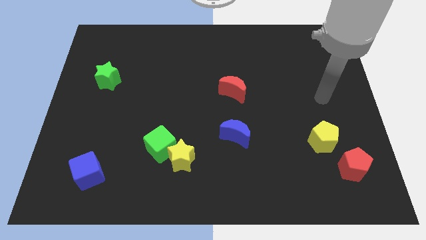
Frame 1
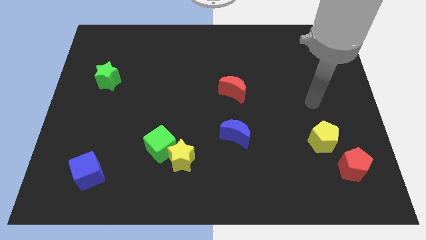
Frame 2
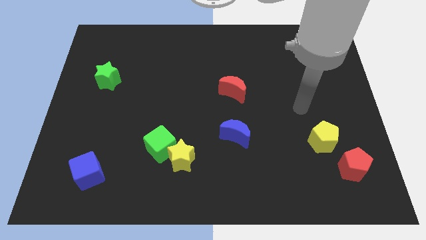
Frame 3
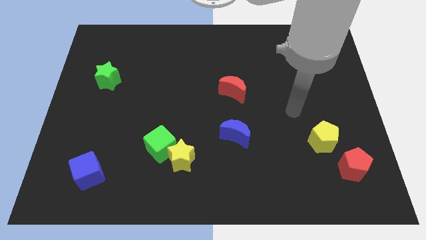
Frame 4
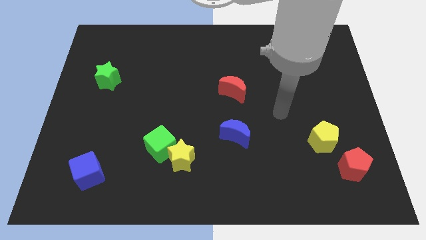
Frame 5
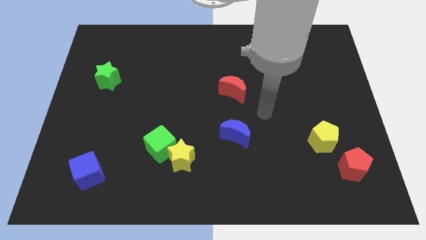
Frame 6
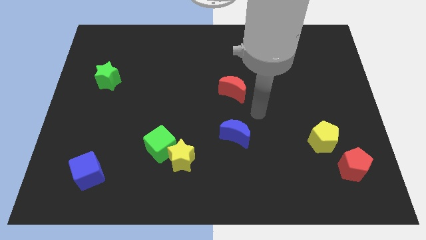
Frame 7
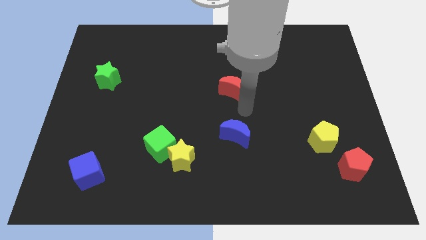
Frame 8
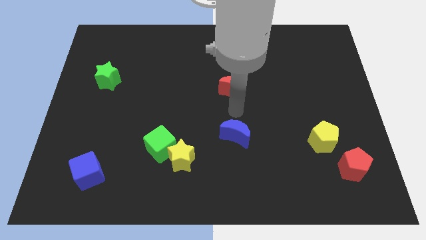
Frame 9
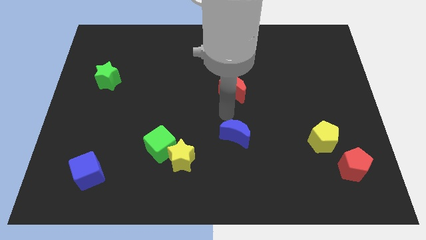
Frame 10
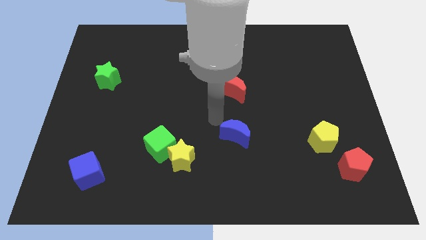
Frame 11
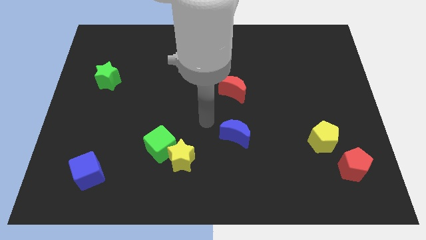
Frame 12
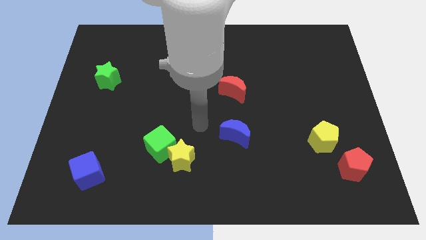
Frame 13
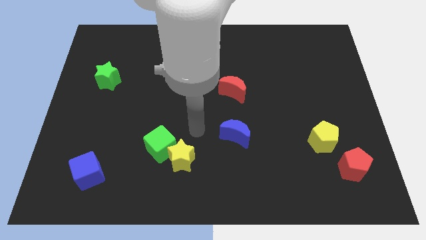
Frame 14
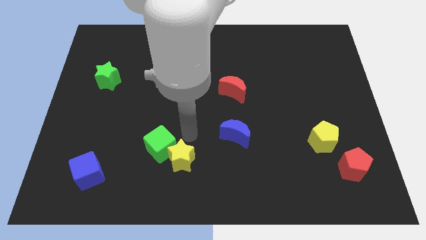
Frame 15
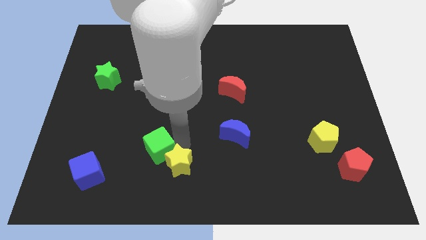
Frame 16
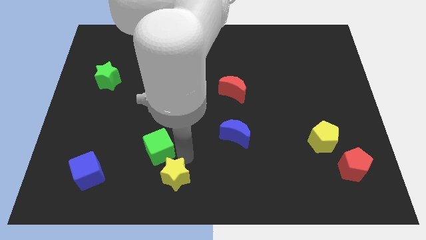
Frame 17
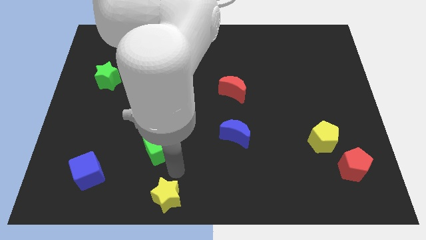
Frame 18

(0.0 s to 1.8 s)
move the green cube away from the yellow star

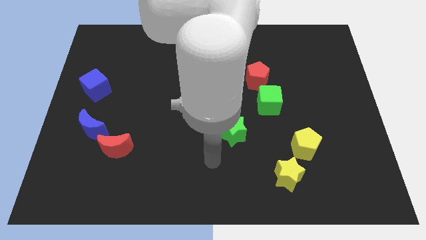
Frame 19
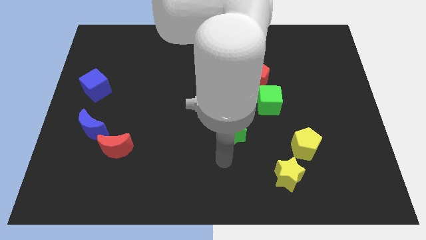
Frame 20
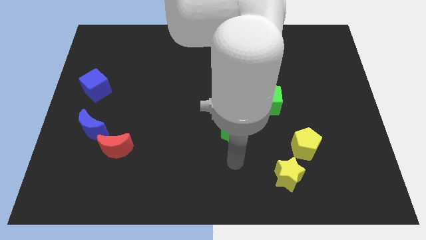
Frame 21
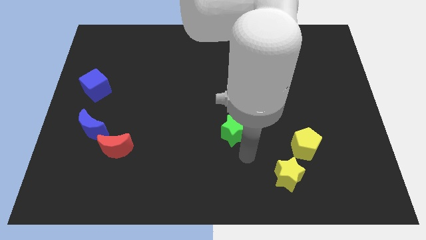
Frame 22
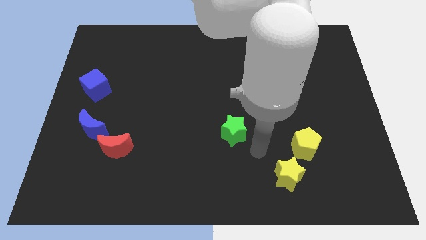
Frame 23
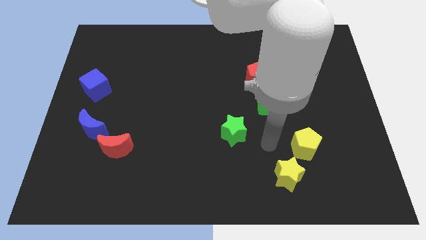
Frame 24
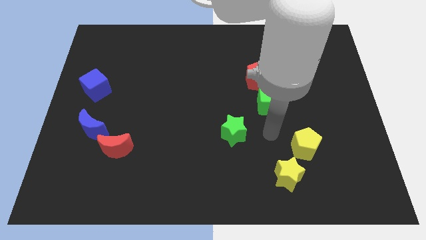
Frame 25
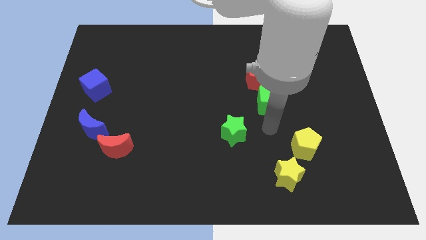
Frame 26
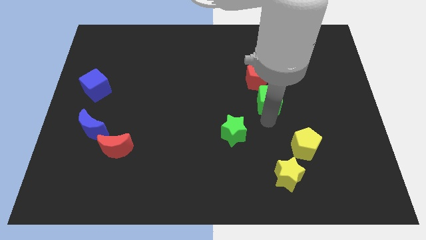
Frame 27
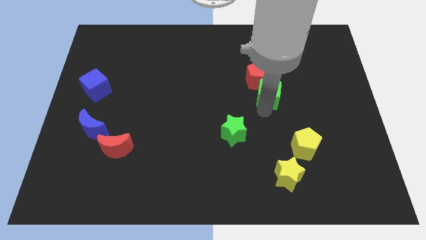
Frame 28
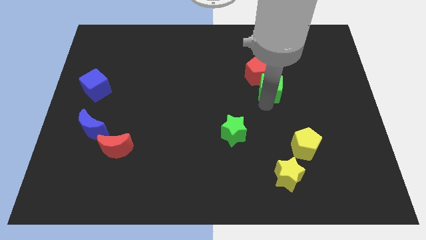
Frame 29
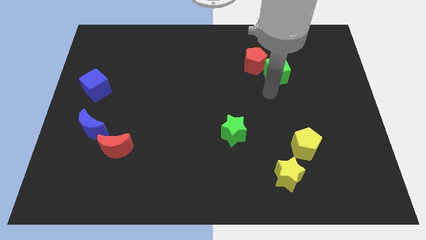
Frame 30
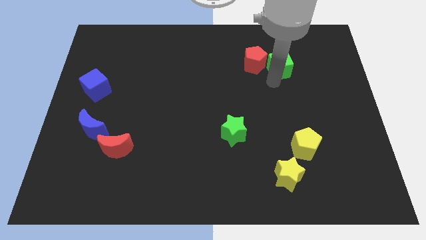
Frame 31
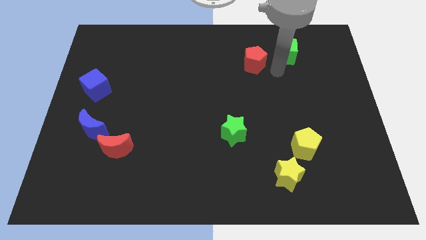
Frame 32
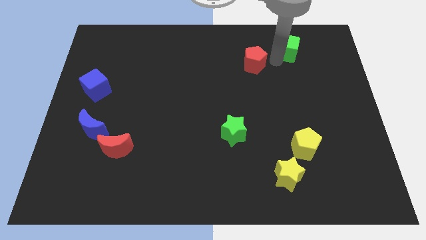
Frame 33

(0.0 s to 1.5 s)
pull the red pentagon apart from the green cube

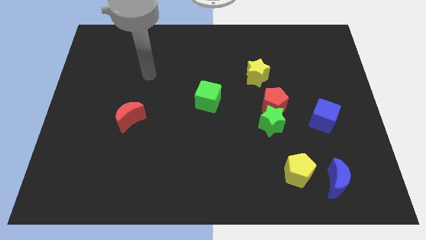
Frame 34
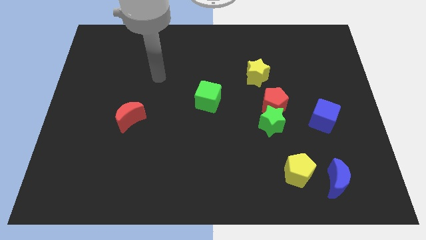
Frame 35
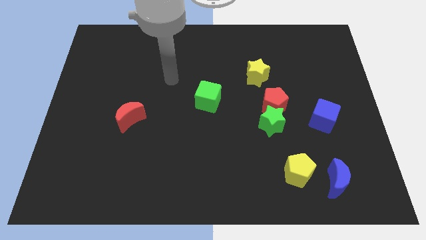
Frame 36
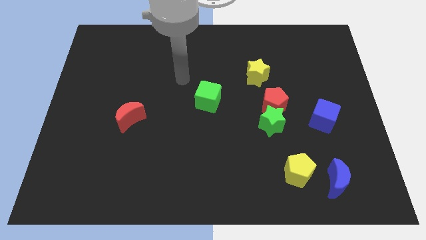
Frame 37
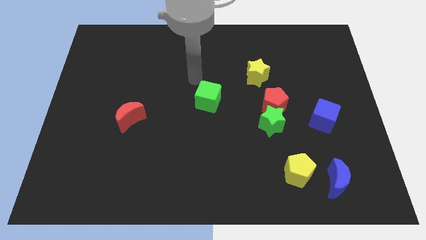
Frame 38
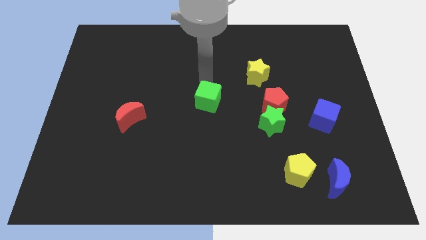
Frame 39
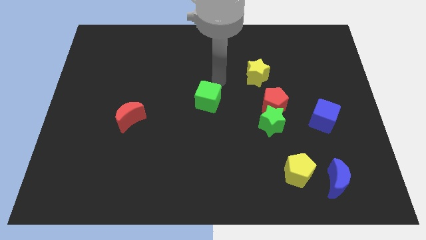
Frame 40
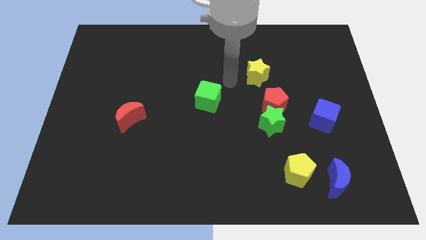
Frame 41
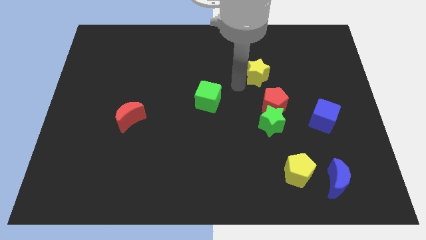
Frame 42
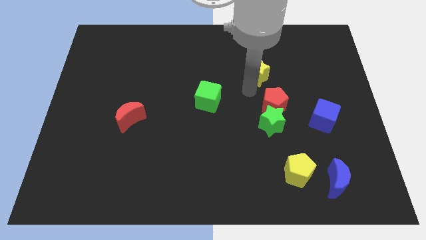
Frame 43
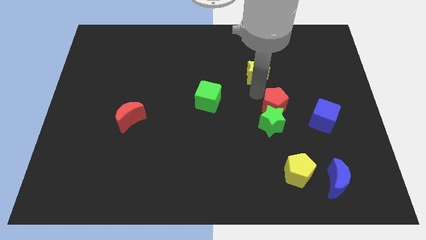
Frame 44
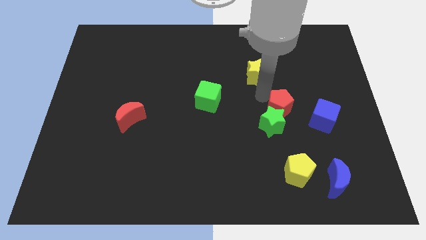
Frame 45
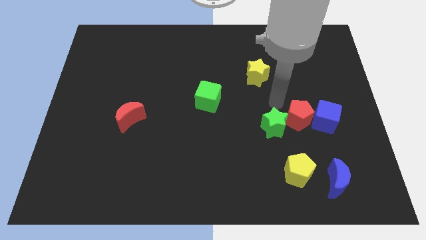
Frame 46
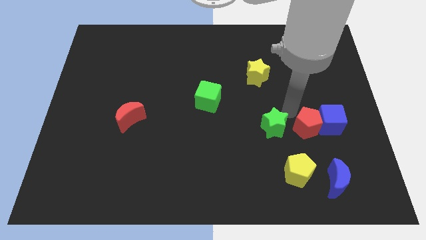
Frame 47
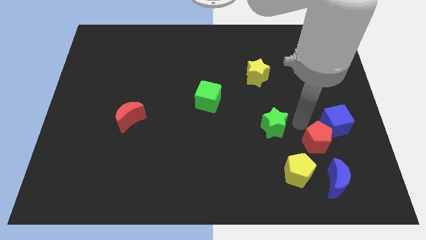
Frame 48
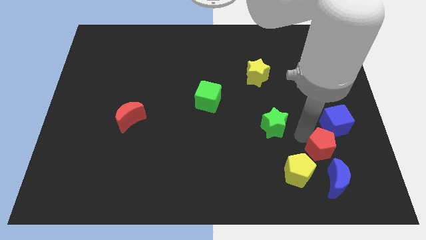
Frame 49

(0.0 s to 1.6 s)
pull the green star apart from the red pentagon

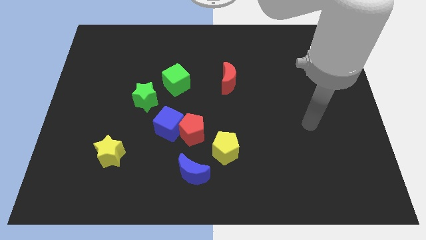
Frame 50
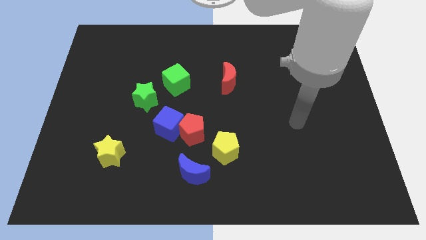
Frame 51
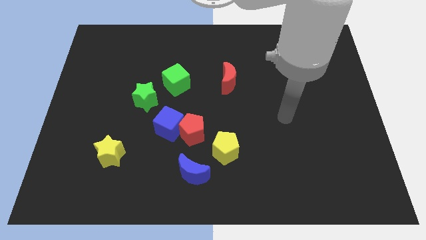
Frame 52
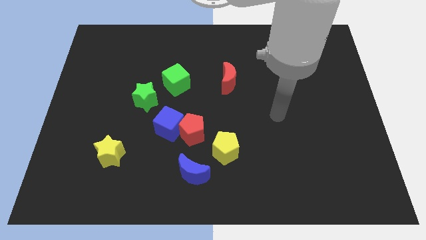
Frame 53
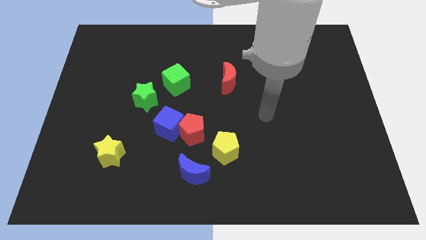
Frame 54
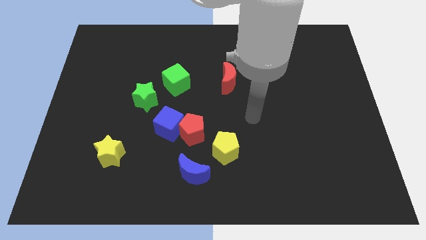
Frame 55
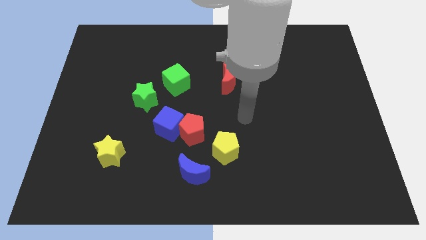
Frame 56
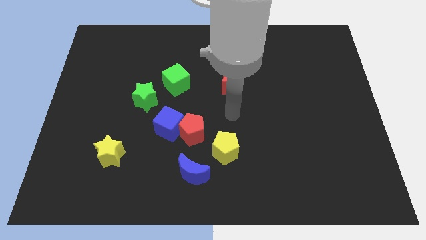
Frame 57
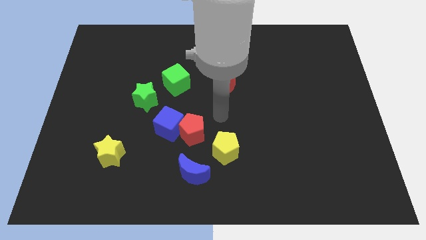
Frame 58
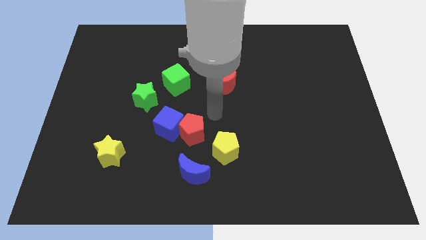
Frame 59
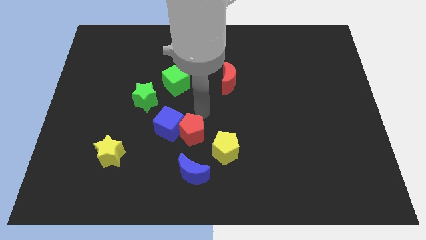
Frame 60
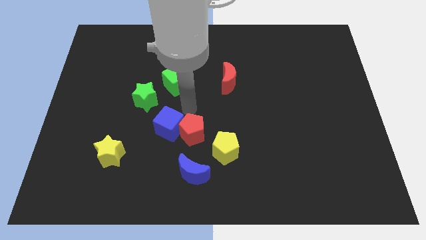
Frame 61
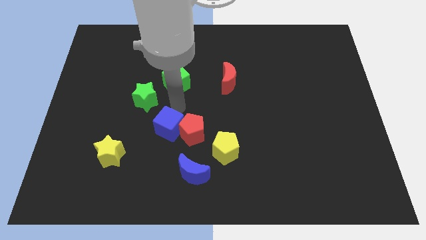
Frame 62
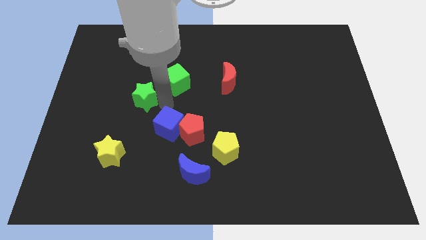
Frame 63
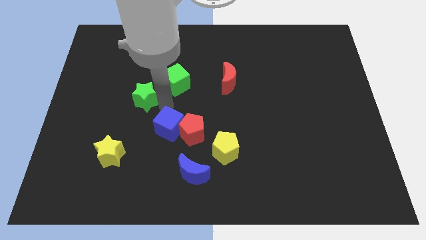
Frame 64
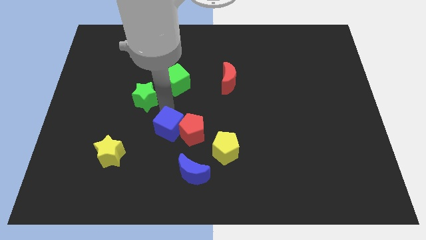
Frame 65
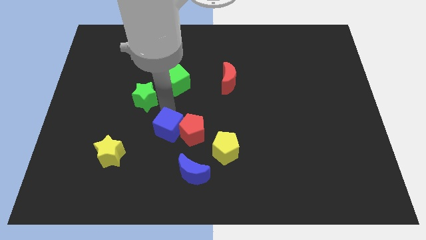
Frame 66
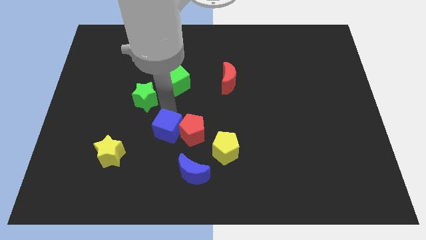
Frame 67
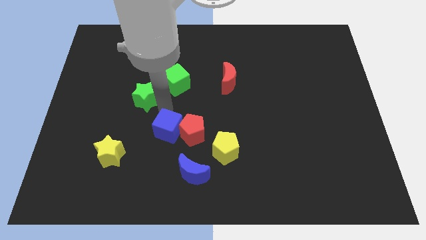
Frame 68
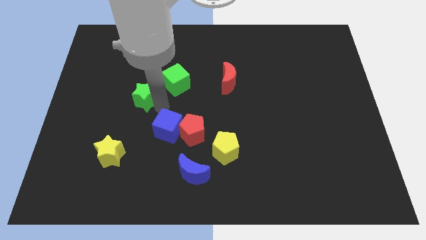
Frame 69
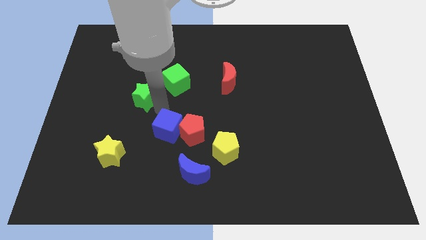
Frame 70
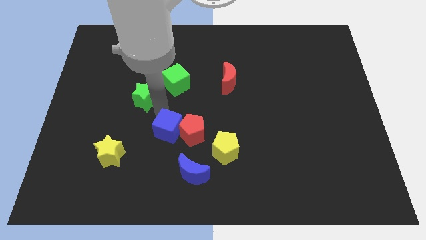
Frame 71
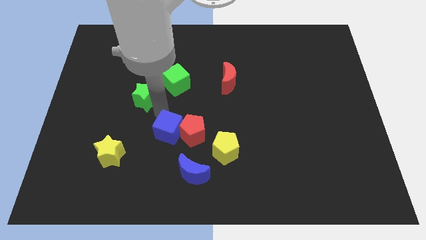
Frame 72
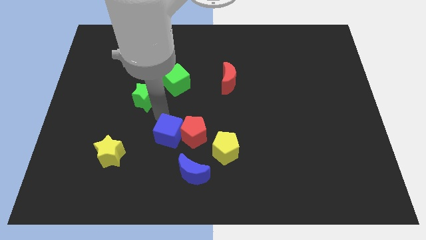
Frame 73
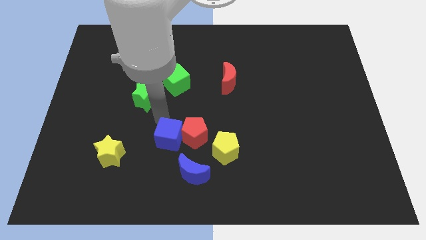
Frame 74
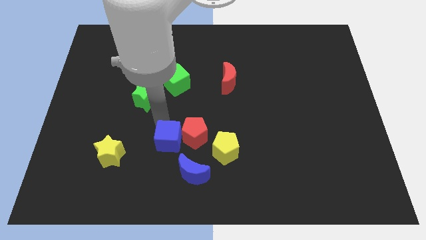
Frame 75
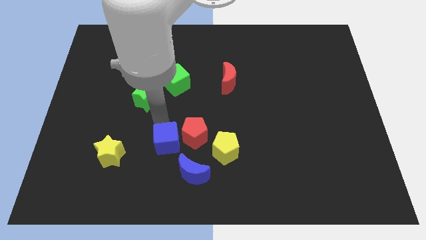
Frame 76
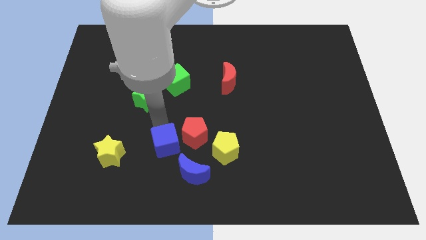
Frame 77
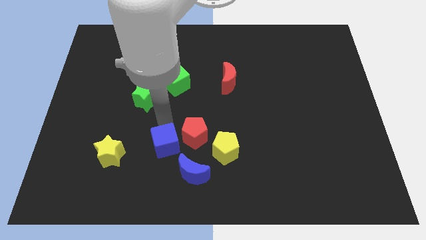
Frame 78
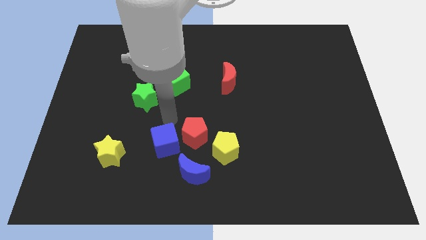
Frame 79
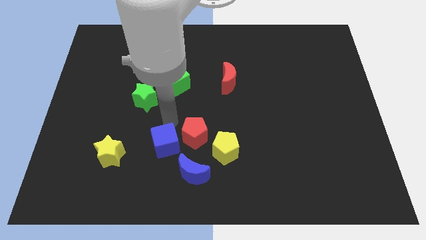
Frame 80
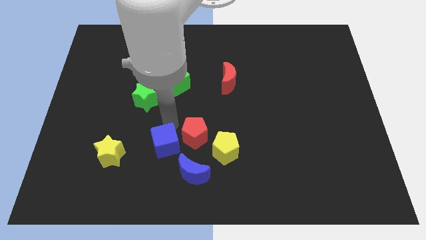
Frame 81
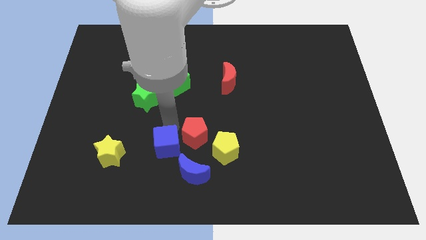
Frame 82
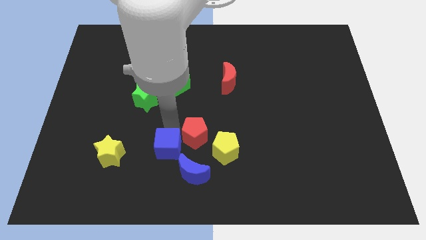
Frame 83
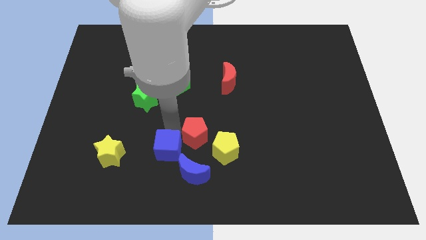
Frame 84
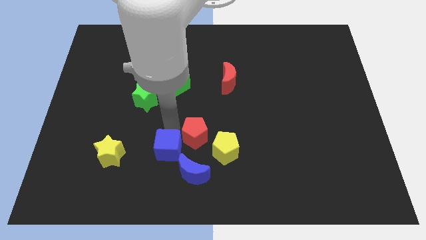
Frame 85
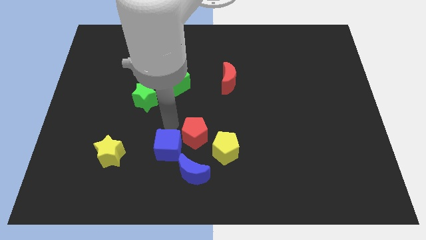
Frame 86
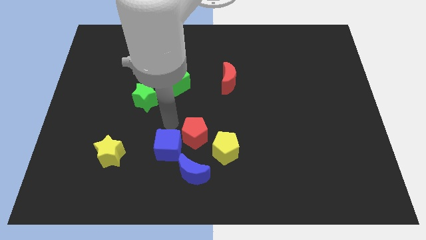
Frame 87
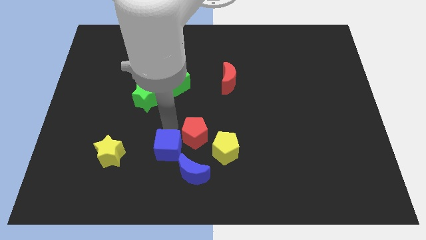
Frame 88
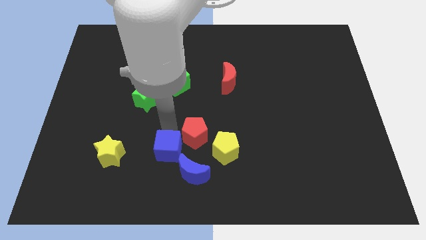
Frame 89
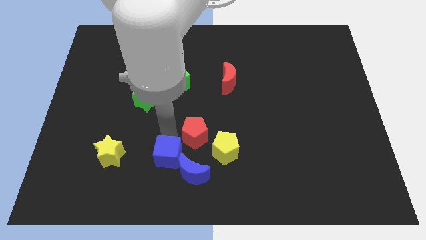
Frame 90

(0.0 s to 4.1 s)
move the blue cube away from the red pentagon and green star

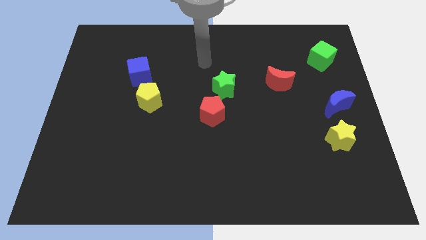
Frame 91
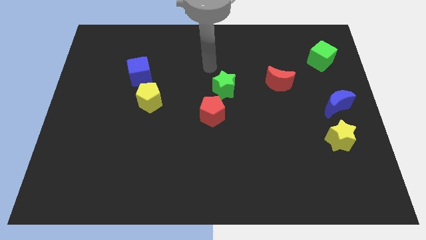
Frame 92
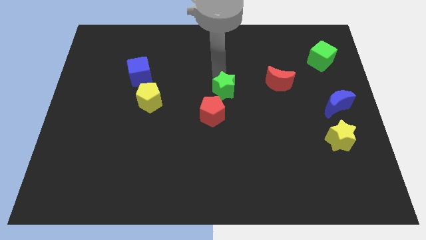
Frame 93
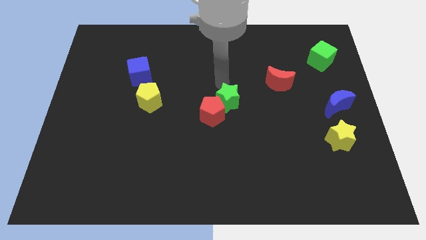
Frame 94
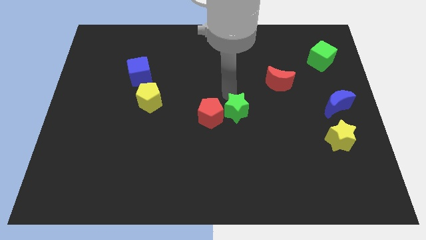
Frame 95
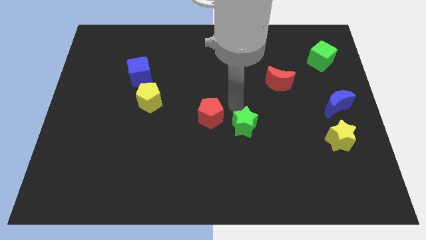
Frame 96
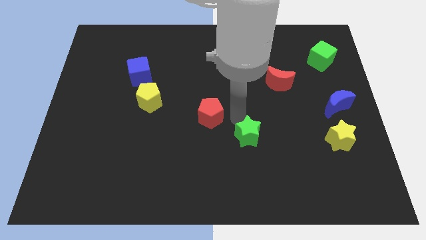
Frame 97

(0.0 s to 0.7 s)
pull the red pentagon apart from the green star
